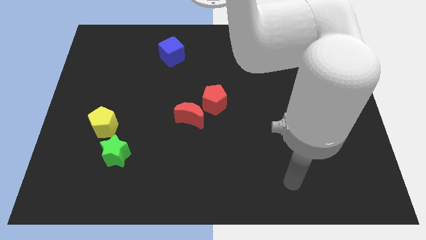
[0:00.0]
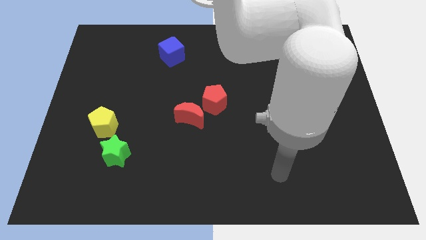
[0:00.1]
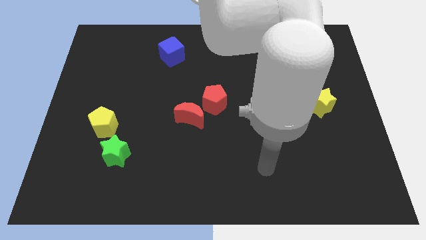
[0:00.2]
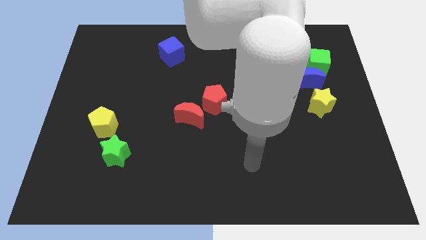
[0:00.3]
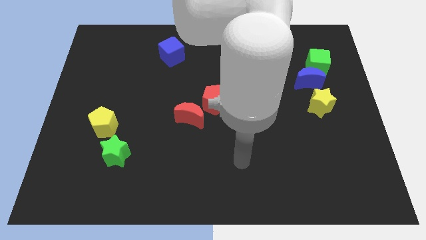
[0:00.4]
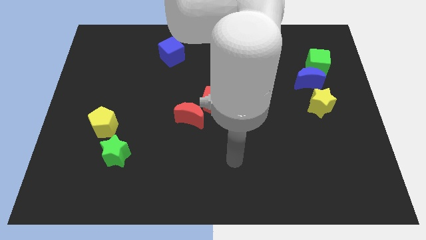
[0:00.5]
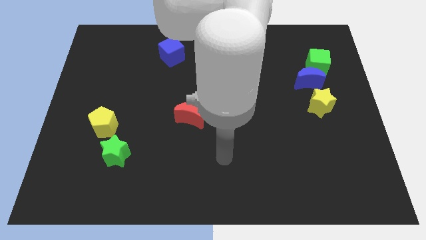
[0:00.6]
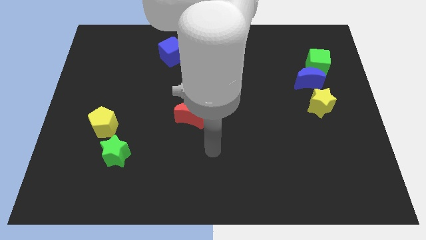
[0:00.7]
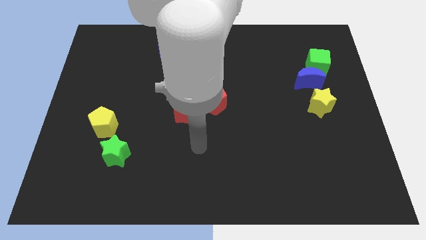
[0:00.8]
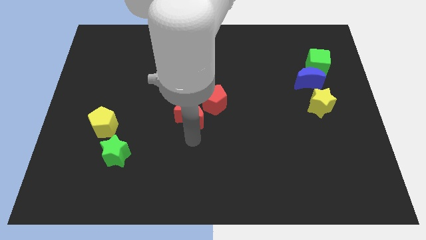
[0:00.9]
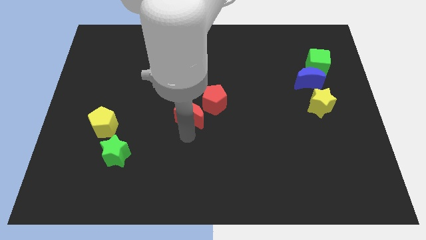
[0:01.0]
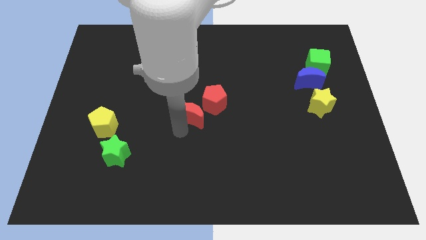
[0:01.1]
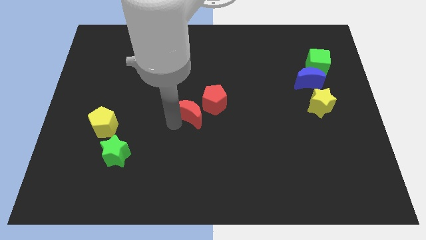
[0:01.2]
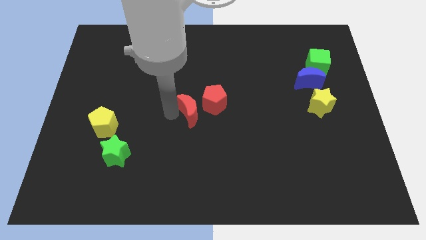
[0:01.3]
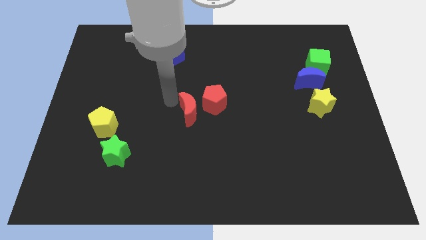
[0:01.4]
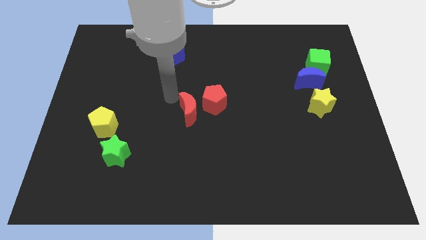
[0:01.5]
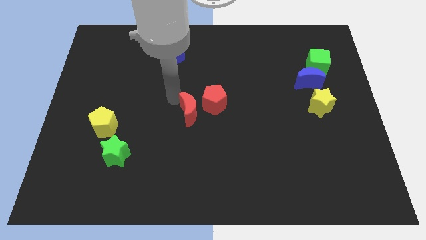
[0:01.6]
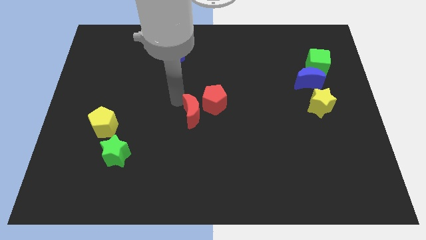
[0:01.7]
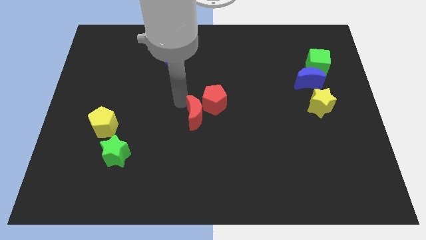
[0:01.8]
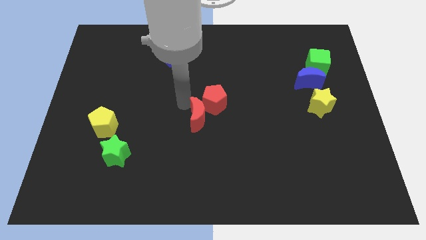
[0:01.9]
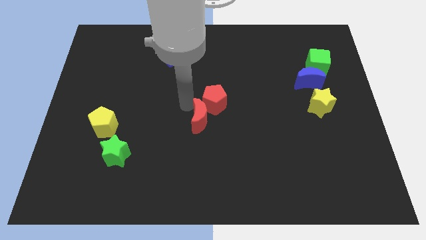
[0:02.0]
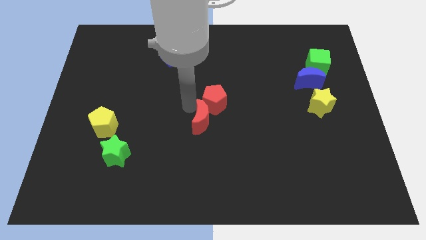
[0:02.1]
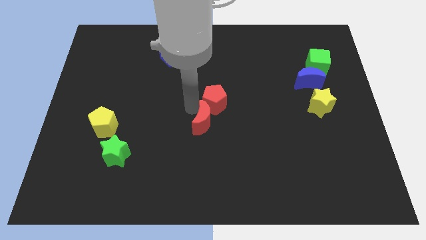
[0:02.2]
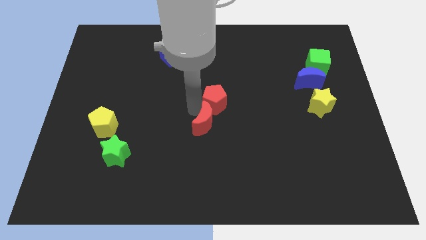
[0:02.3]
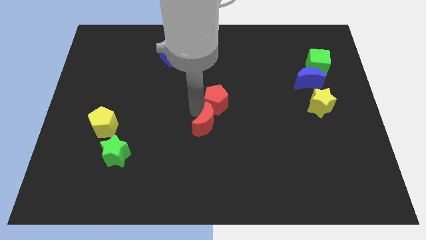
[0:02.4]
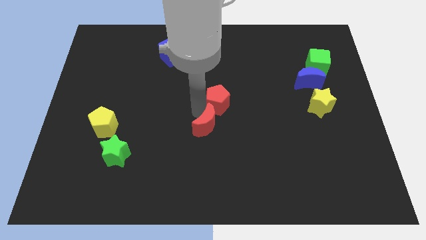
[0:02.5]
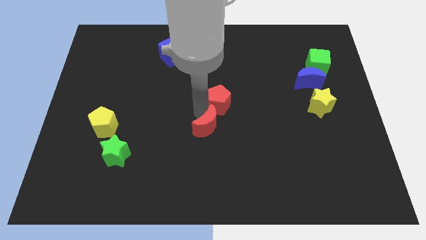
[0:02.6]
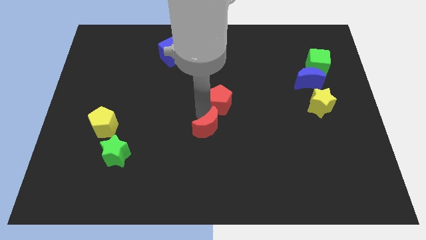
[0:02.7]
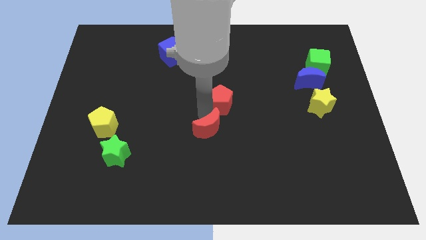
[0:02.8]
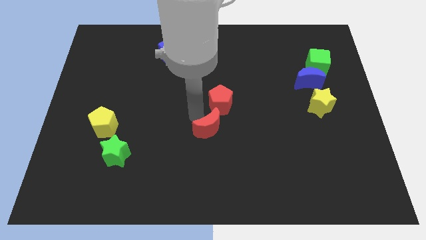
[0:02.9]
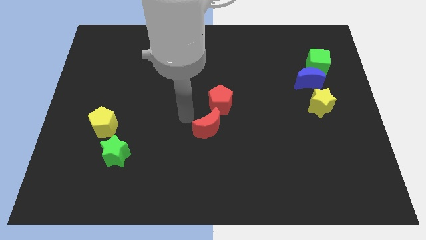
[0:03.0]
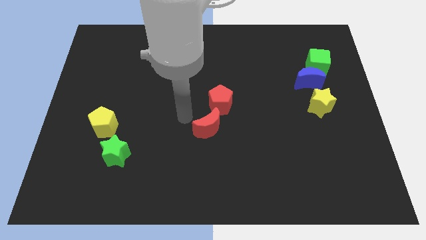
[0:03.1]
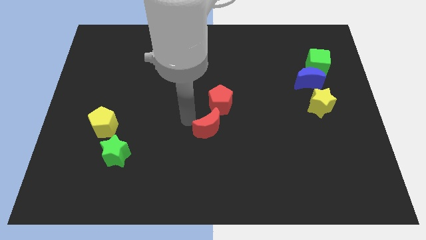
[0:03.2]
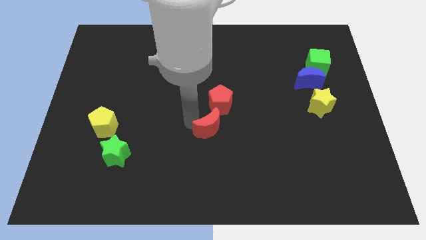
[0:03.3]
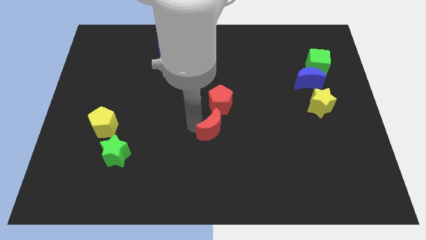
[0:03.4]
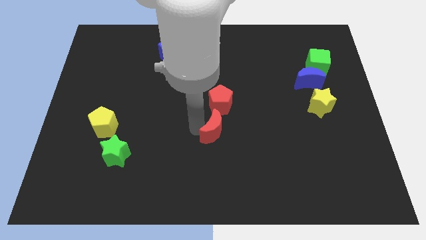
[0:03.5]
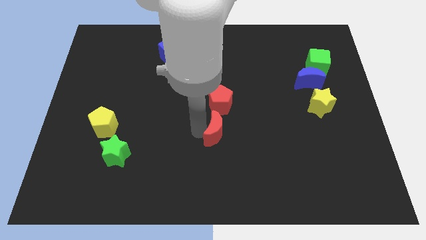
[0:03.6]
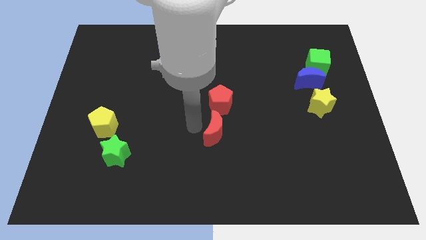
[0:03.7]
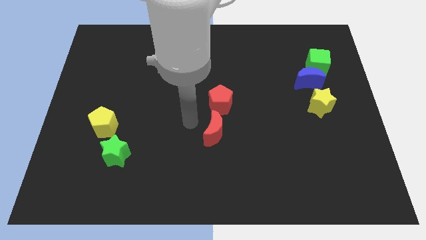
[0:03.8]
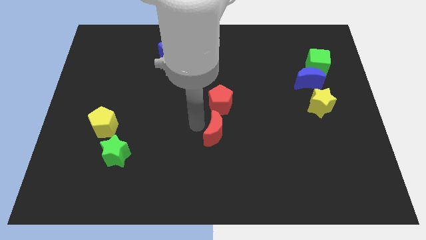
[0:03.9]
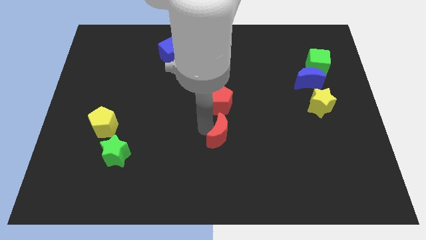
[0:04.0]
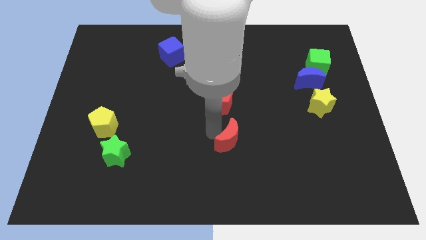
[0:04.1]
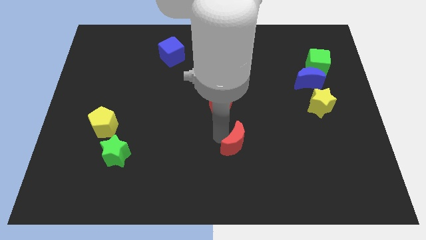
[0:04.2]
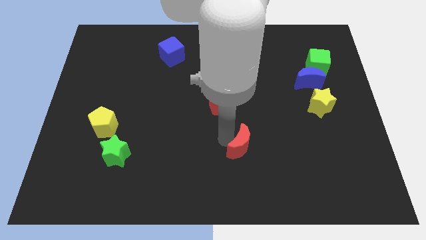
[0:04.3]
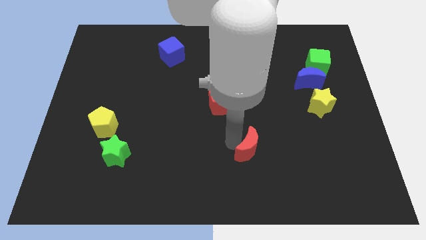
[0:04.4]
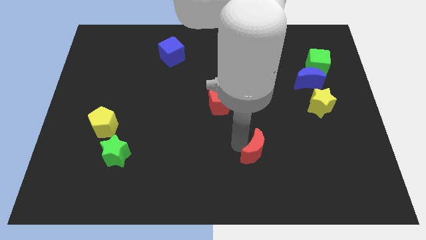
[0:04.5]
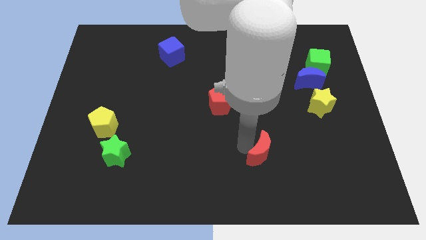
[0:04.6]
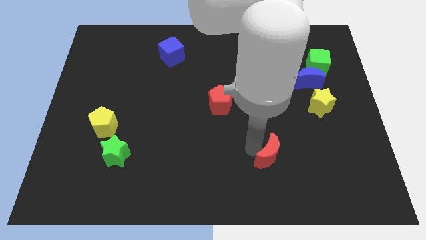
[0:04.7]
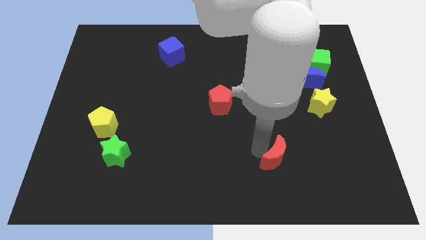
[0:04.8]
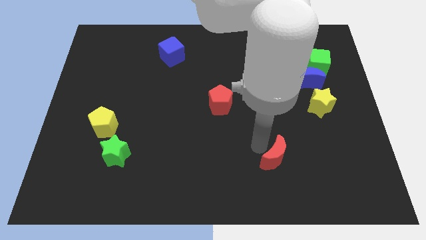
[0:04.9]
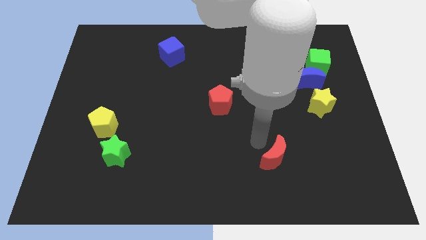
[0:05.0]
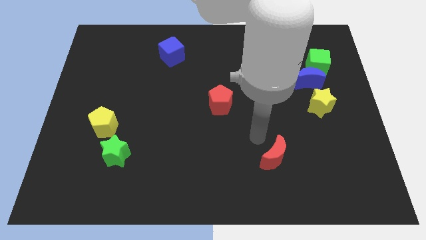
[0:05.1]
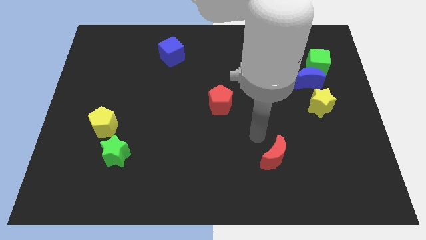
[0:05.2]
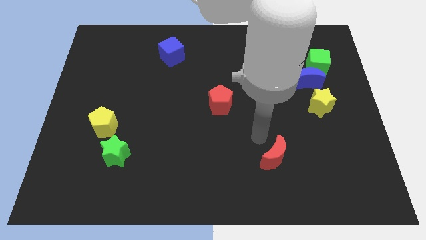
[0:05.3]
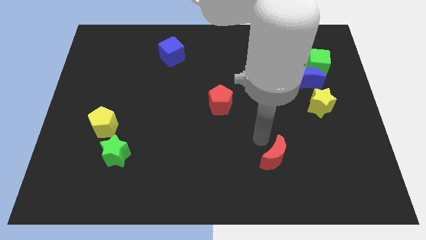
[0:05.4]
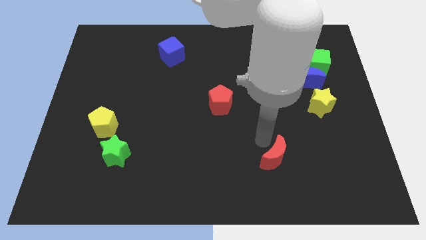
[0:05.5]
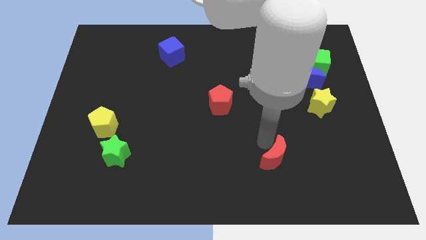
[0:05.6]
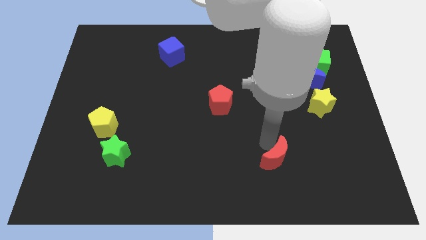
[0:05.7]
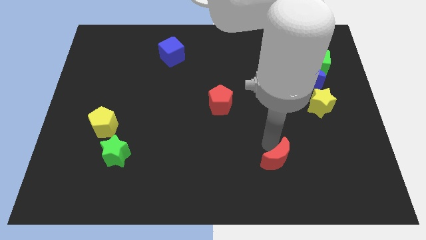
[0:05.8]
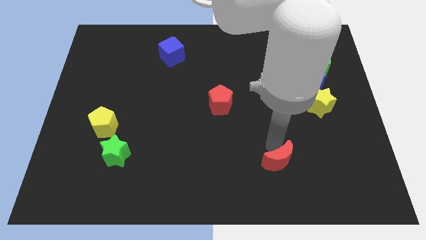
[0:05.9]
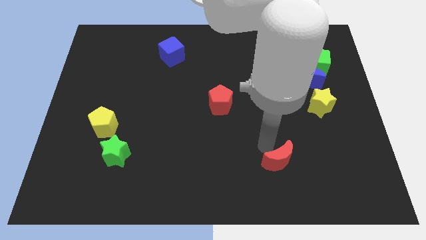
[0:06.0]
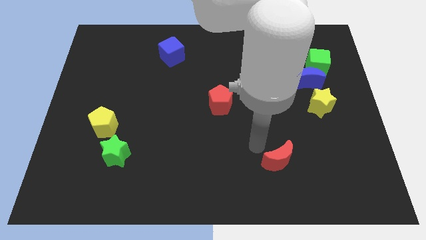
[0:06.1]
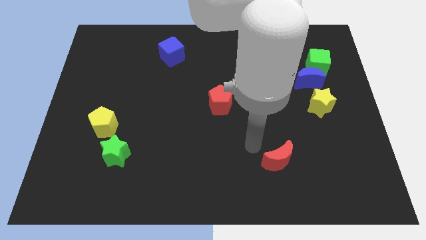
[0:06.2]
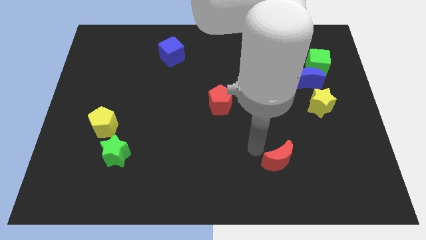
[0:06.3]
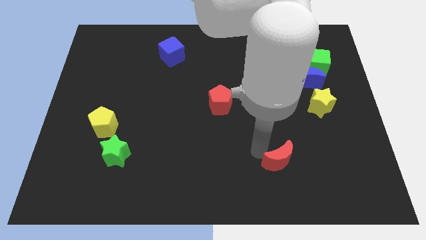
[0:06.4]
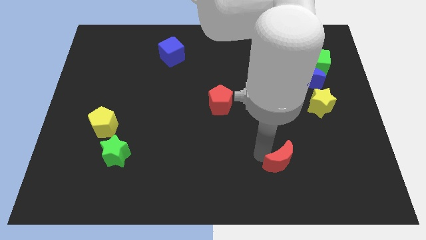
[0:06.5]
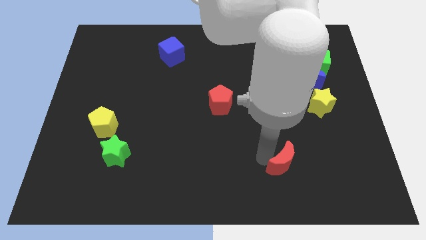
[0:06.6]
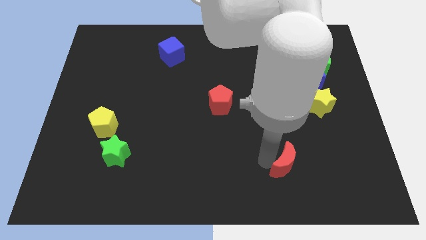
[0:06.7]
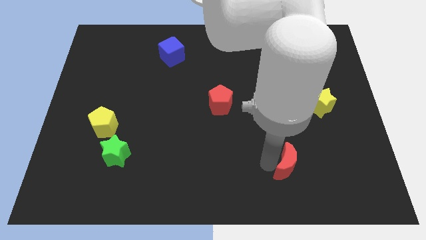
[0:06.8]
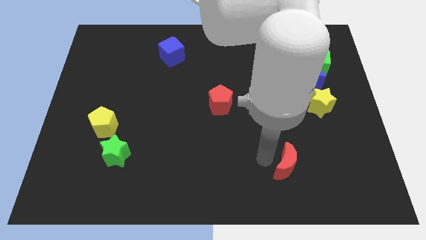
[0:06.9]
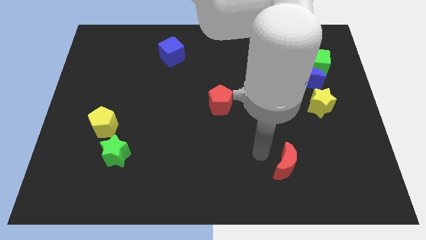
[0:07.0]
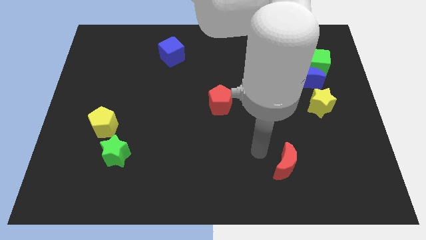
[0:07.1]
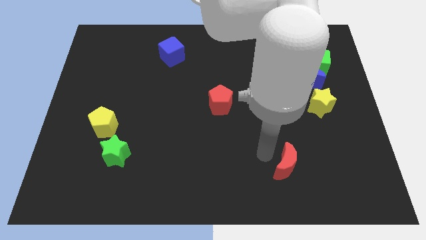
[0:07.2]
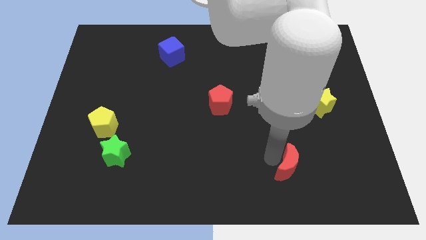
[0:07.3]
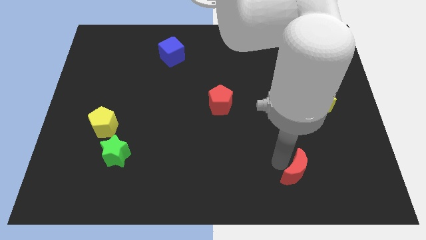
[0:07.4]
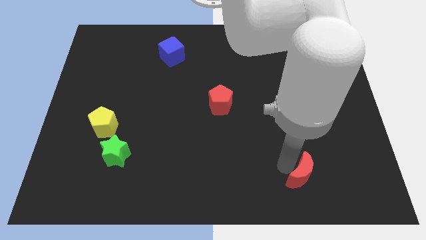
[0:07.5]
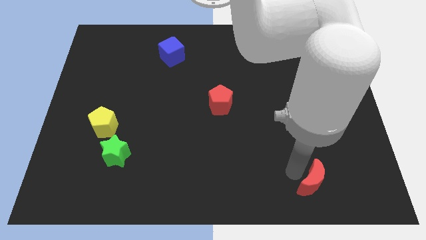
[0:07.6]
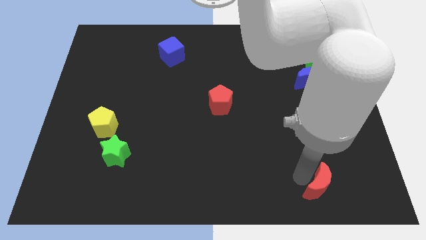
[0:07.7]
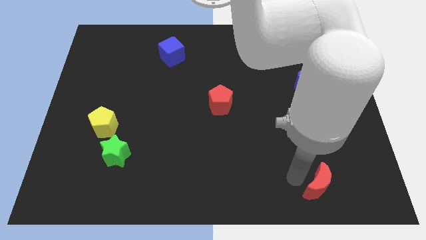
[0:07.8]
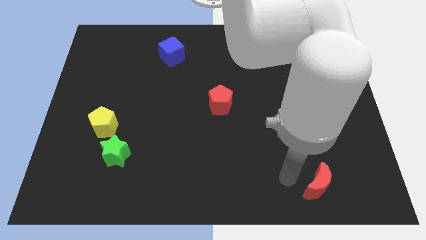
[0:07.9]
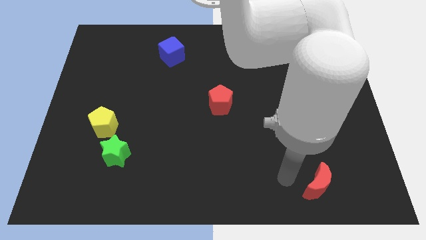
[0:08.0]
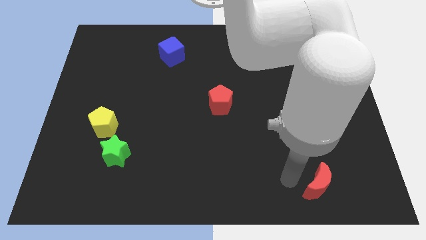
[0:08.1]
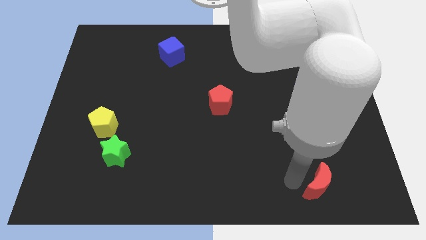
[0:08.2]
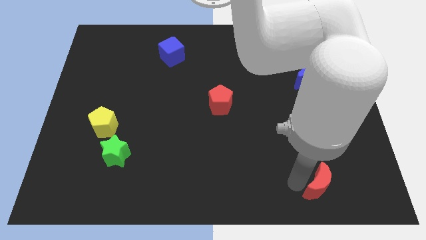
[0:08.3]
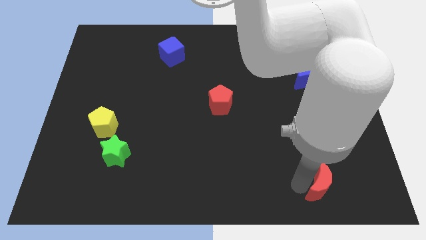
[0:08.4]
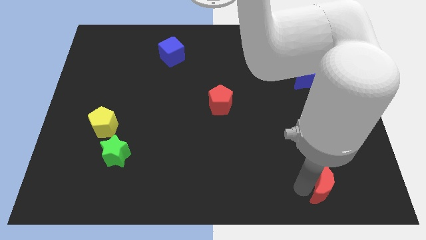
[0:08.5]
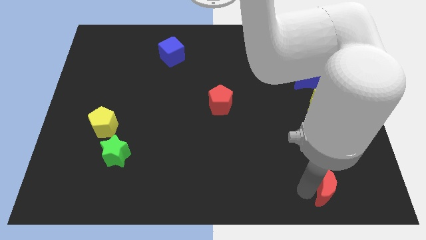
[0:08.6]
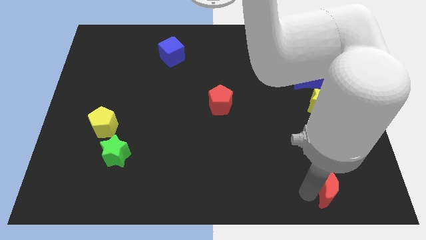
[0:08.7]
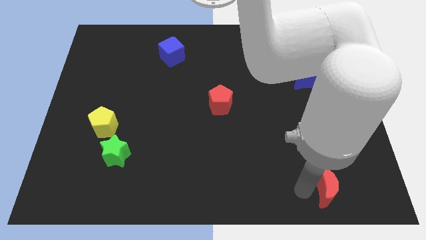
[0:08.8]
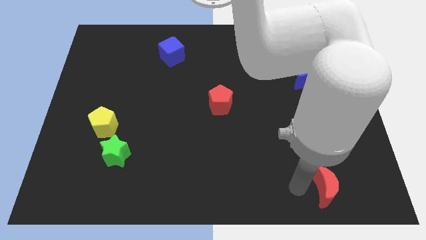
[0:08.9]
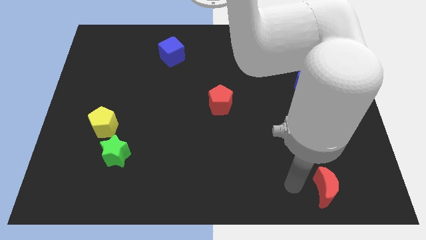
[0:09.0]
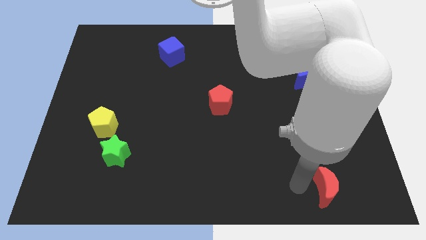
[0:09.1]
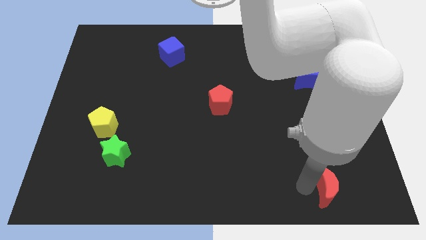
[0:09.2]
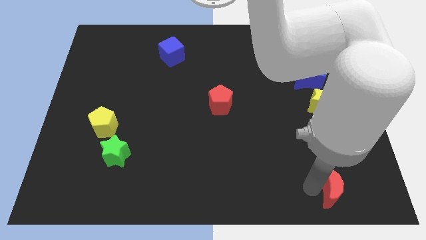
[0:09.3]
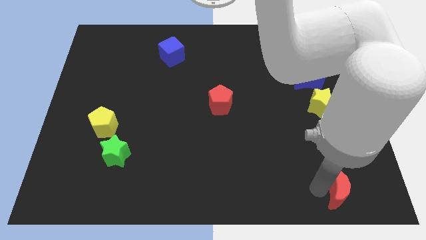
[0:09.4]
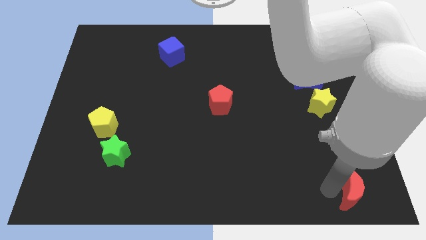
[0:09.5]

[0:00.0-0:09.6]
move the red moon to the bottom right corner
